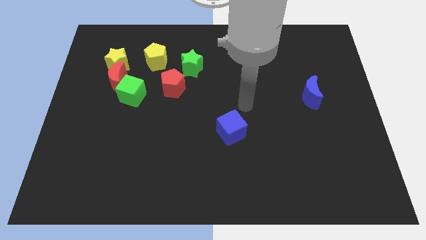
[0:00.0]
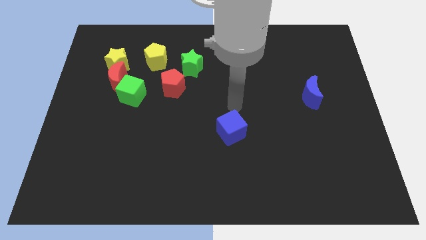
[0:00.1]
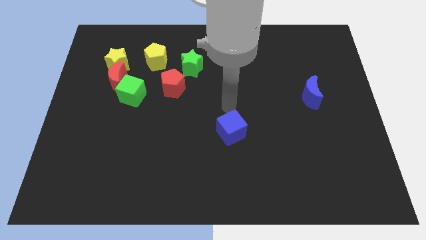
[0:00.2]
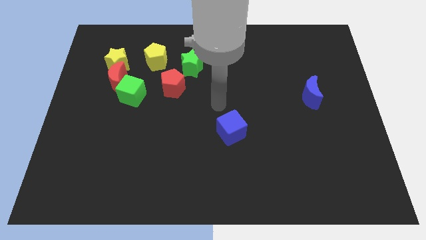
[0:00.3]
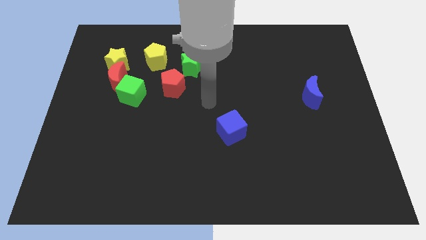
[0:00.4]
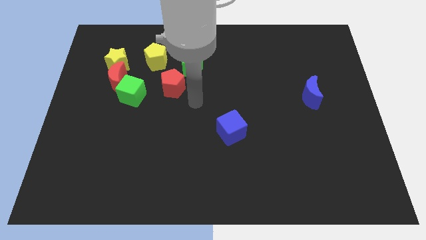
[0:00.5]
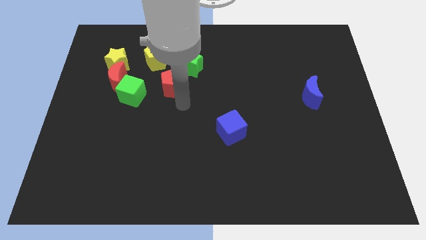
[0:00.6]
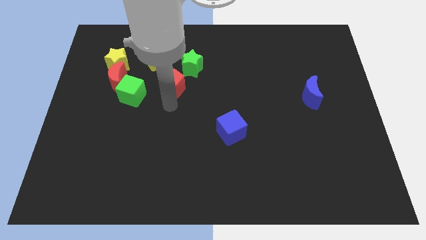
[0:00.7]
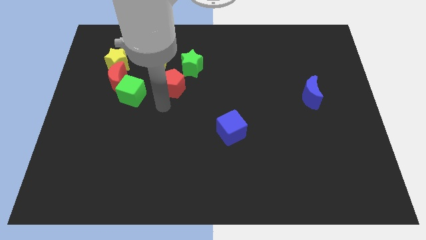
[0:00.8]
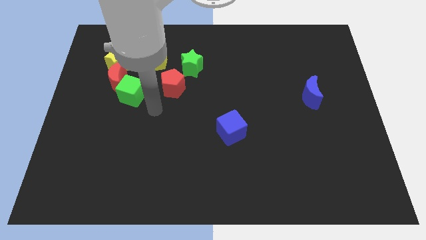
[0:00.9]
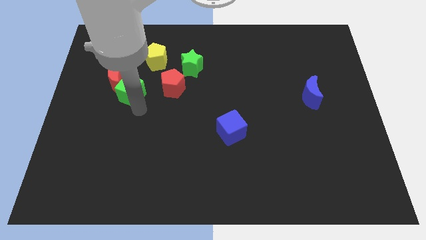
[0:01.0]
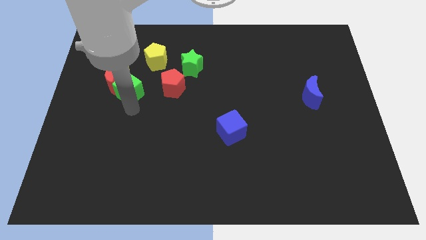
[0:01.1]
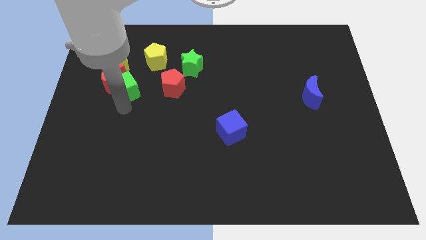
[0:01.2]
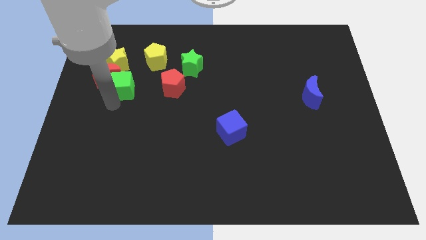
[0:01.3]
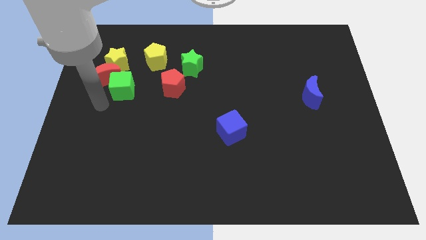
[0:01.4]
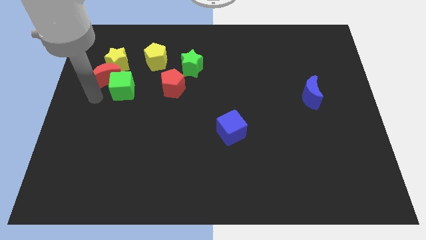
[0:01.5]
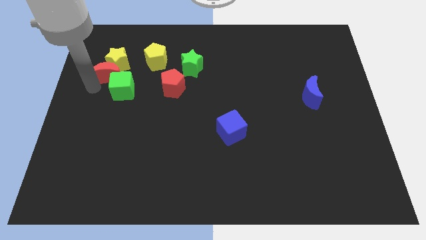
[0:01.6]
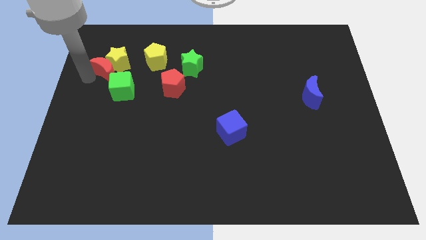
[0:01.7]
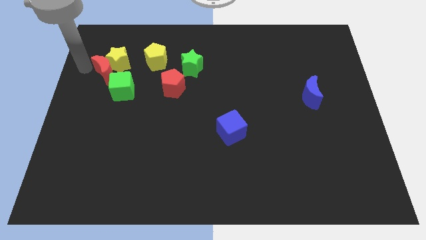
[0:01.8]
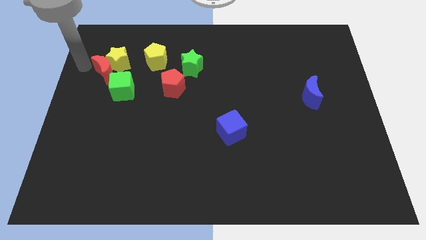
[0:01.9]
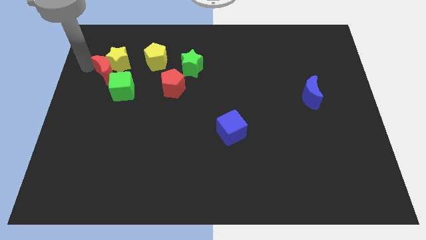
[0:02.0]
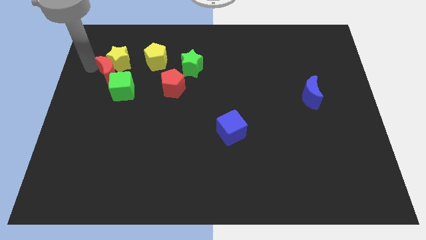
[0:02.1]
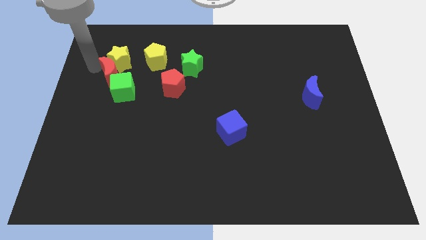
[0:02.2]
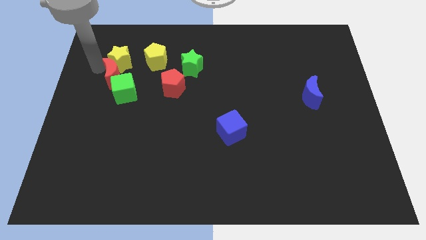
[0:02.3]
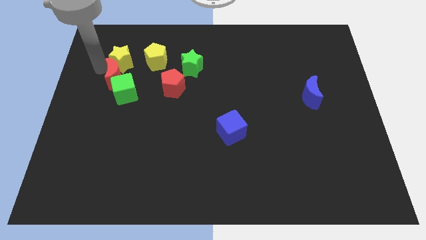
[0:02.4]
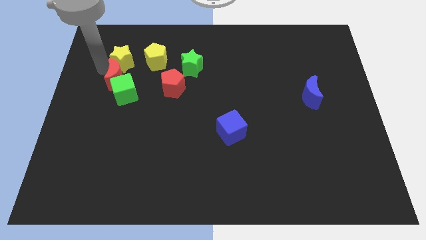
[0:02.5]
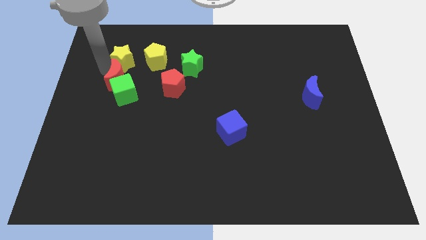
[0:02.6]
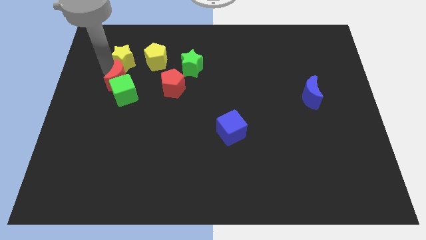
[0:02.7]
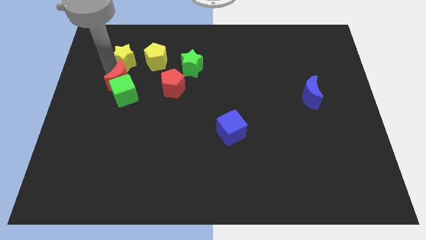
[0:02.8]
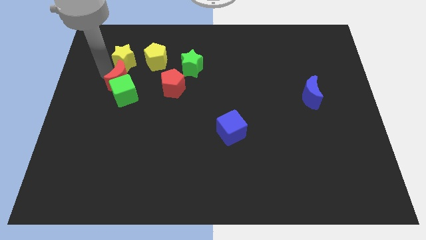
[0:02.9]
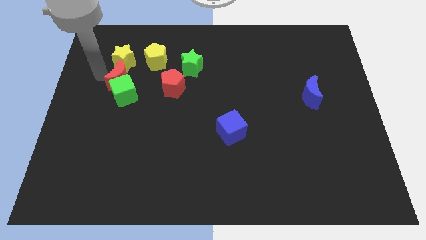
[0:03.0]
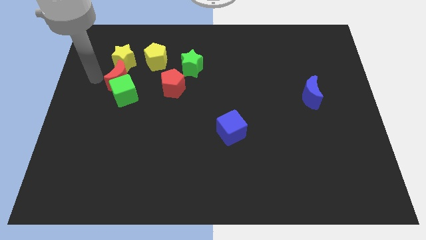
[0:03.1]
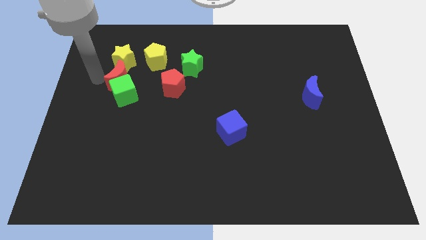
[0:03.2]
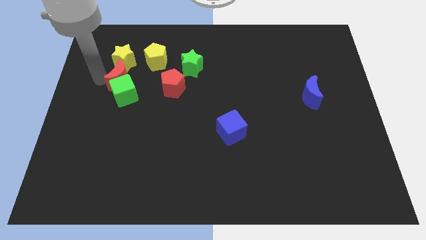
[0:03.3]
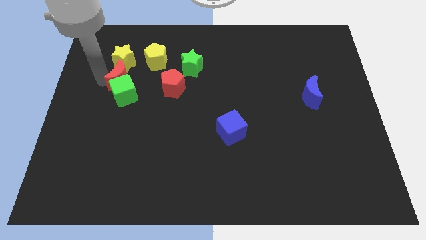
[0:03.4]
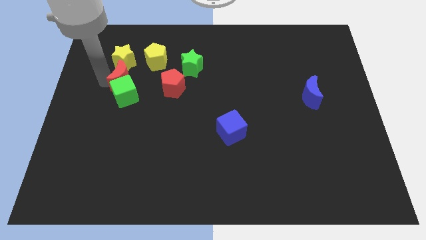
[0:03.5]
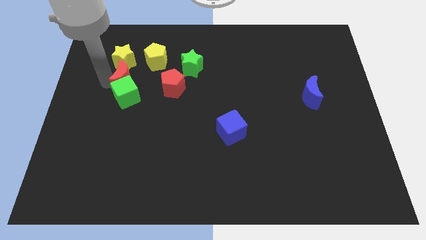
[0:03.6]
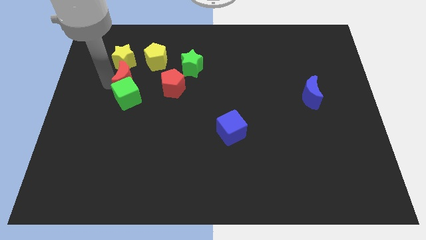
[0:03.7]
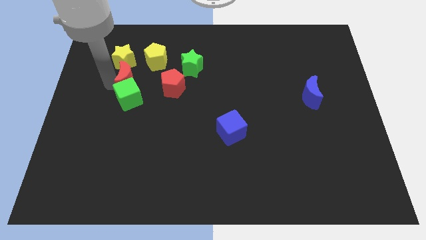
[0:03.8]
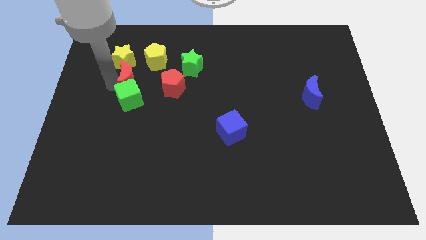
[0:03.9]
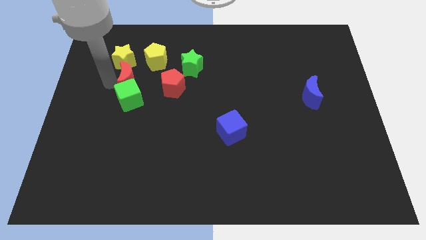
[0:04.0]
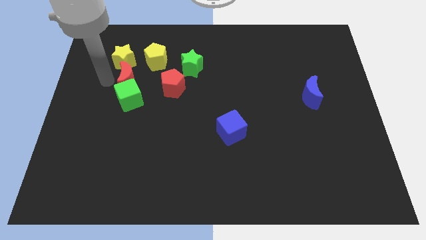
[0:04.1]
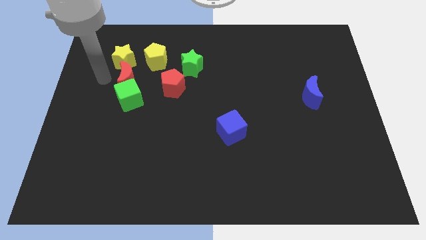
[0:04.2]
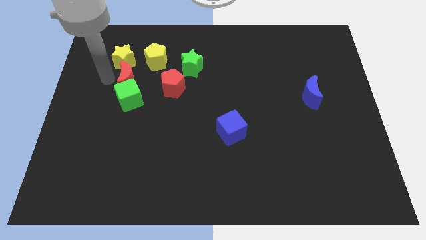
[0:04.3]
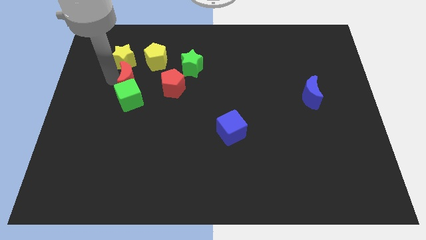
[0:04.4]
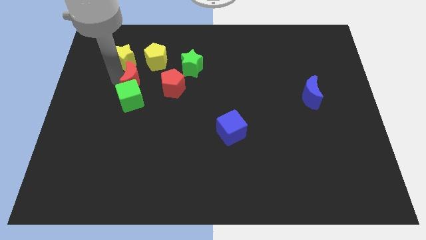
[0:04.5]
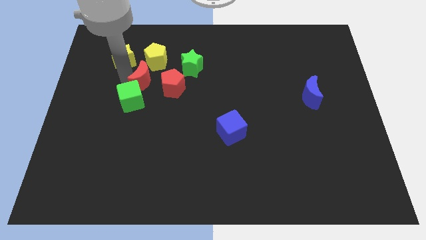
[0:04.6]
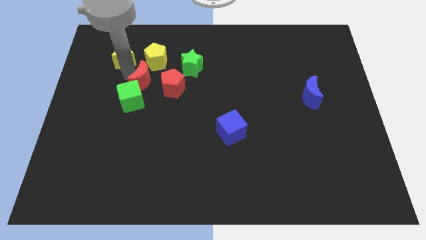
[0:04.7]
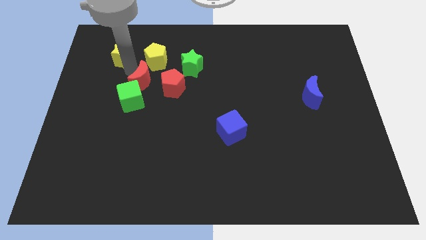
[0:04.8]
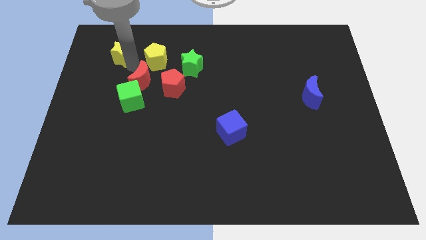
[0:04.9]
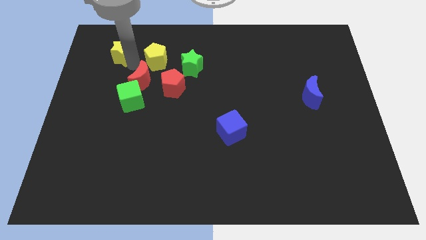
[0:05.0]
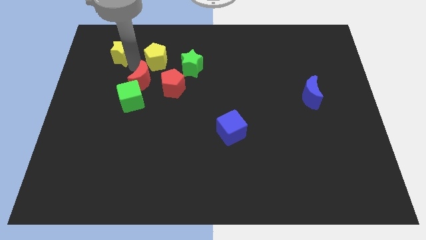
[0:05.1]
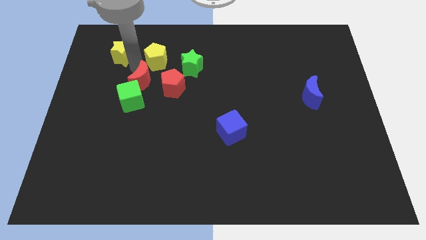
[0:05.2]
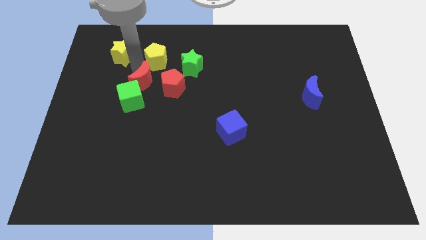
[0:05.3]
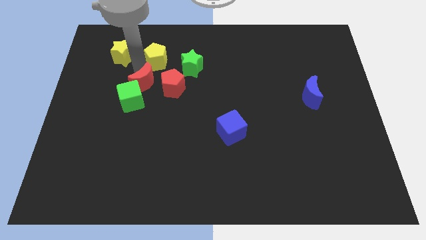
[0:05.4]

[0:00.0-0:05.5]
push the red moon a little to the right

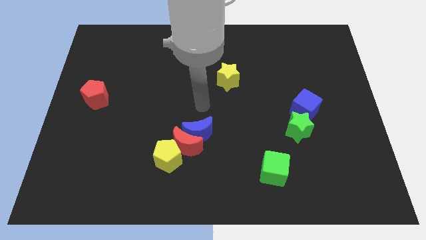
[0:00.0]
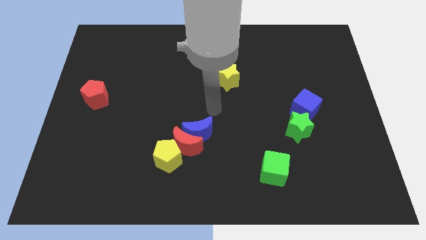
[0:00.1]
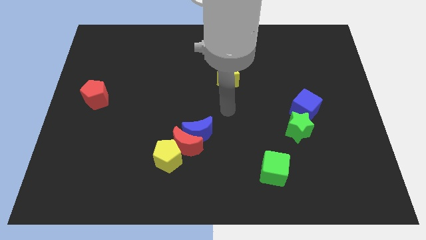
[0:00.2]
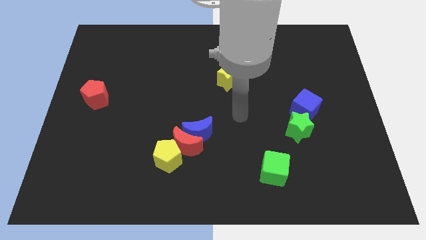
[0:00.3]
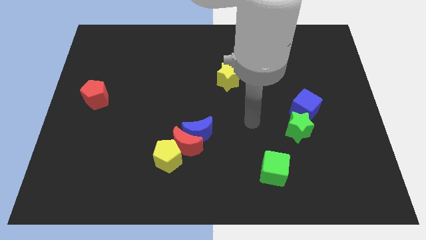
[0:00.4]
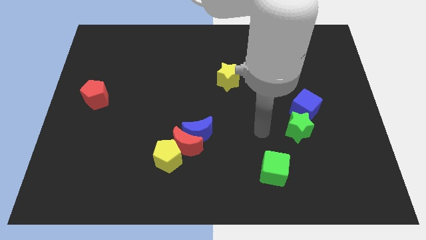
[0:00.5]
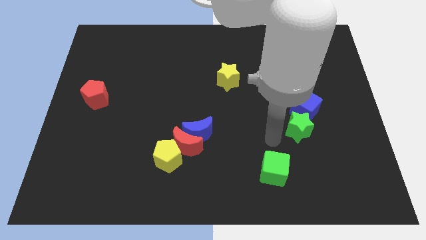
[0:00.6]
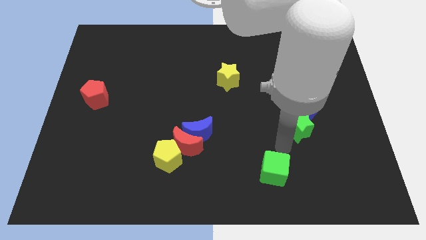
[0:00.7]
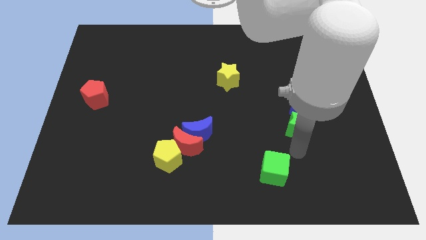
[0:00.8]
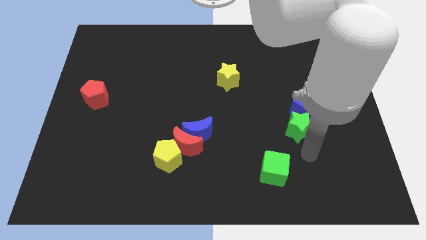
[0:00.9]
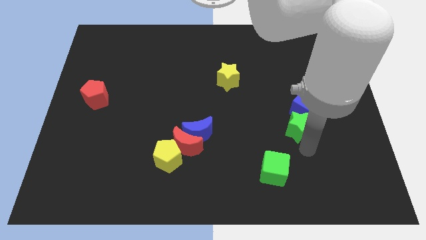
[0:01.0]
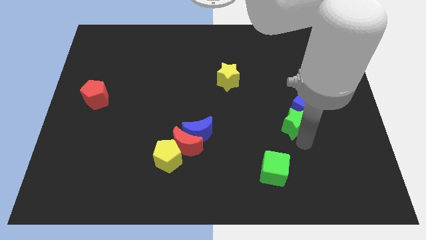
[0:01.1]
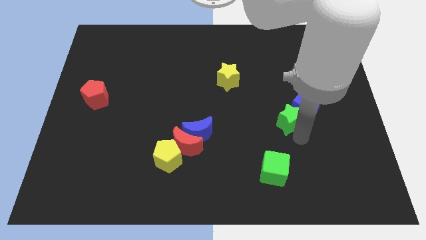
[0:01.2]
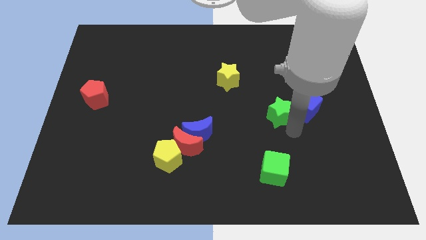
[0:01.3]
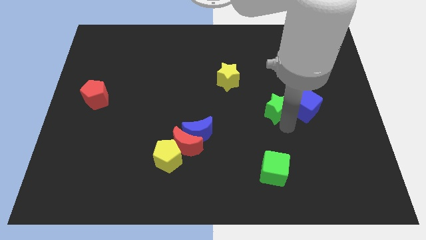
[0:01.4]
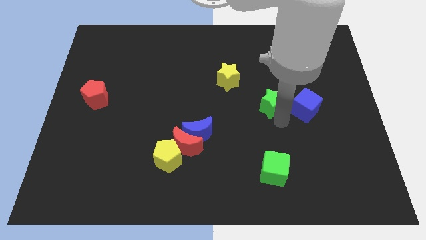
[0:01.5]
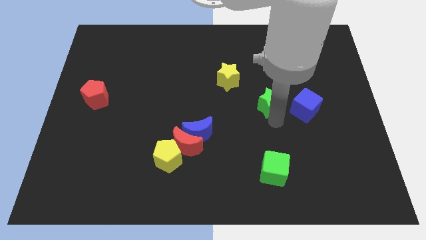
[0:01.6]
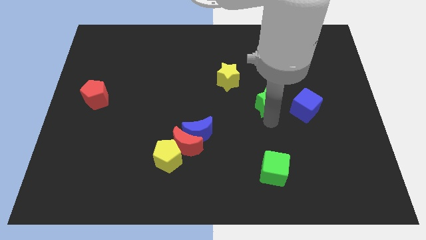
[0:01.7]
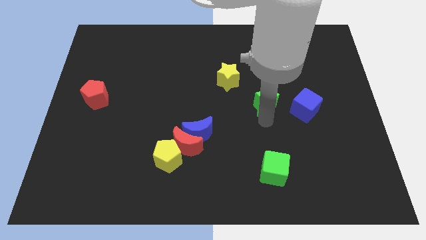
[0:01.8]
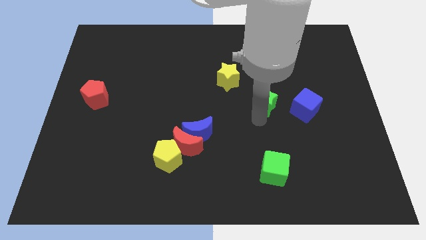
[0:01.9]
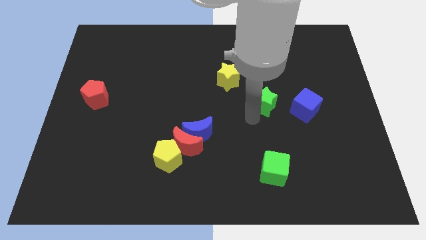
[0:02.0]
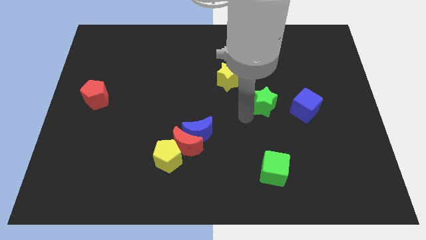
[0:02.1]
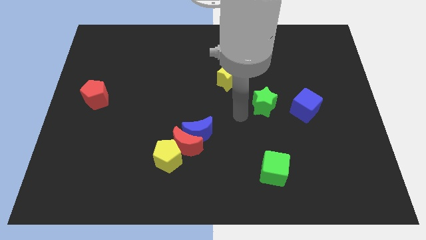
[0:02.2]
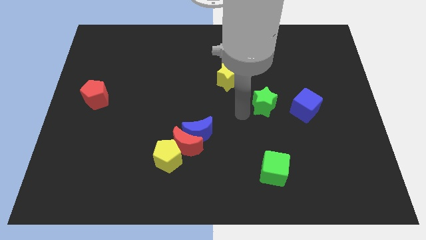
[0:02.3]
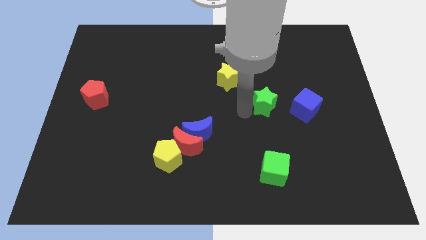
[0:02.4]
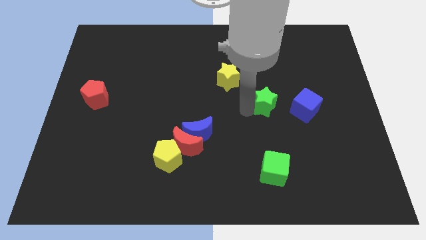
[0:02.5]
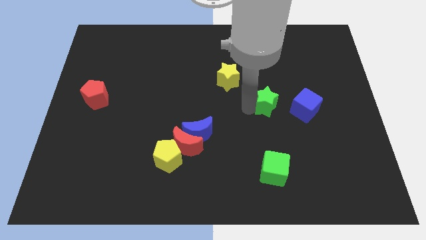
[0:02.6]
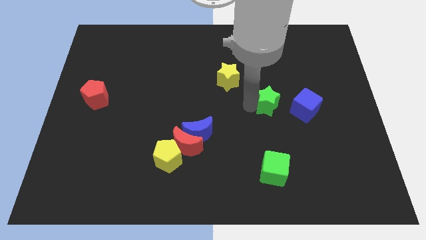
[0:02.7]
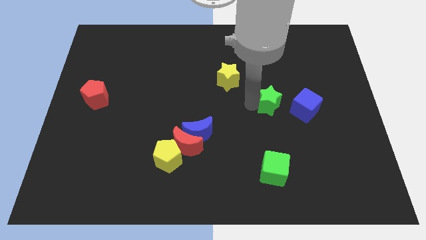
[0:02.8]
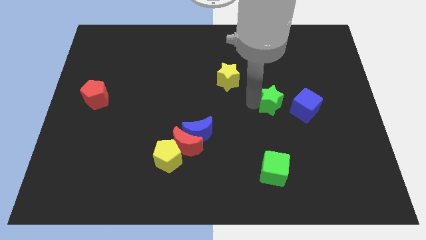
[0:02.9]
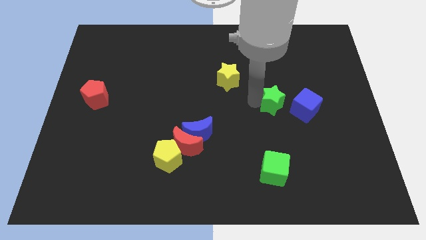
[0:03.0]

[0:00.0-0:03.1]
push the green star upwards slightly
